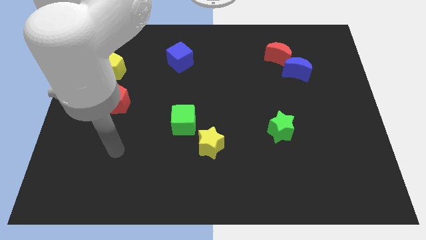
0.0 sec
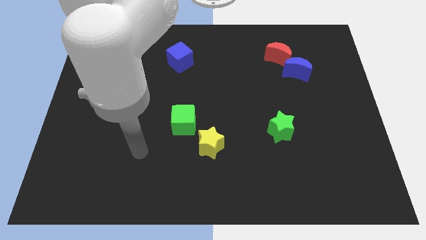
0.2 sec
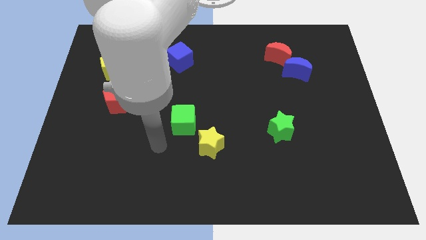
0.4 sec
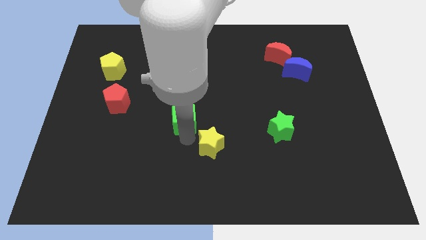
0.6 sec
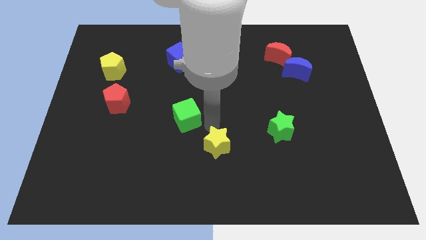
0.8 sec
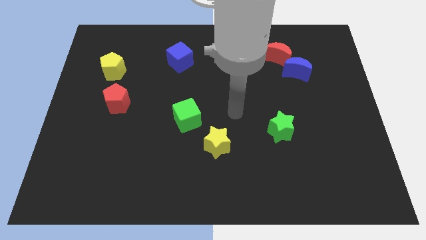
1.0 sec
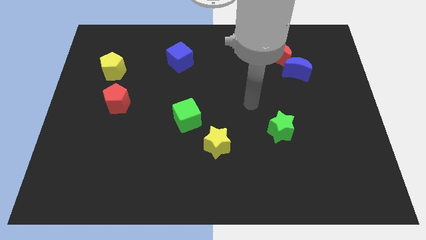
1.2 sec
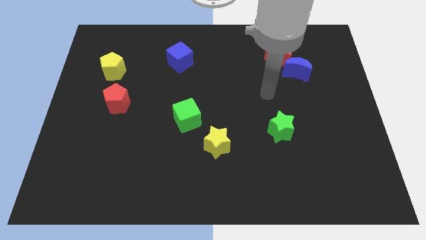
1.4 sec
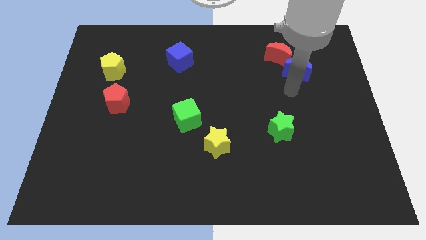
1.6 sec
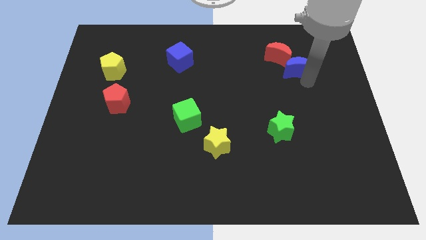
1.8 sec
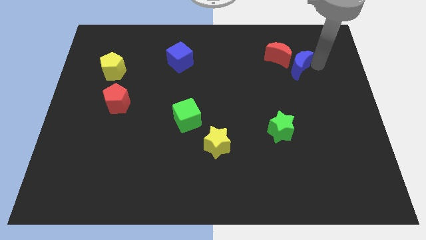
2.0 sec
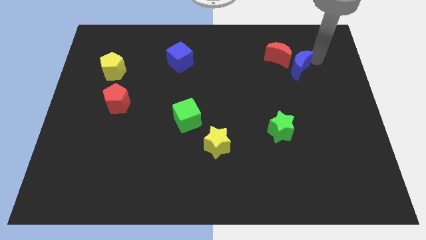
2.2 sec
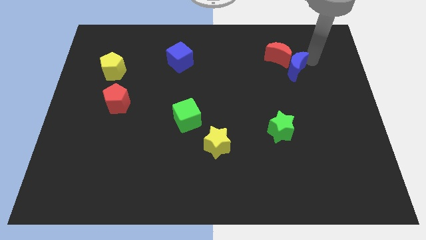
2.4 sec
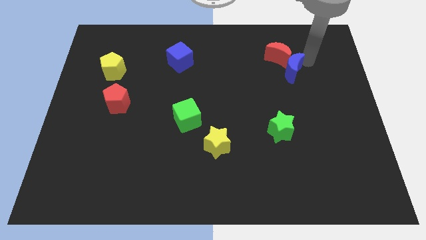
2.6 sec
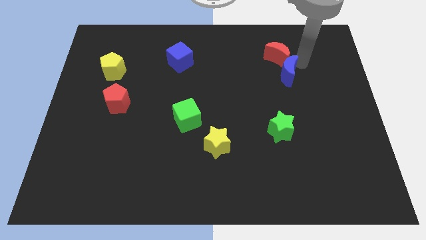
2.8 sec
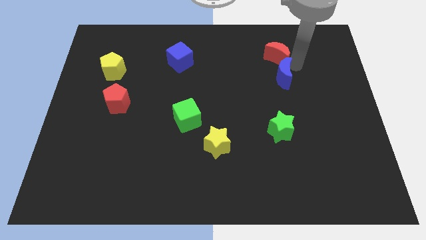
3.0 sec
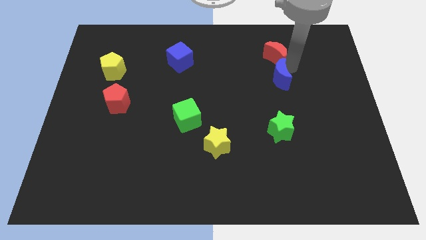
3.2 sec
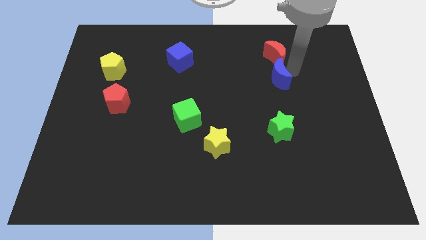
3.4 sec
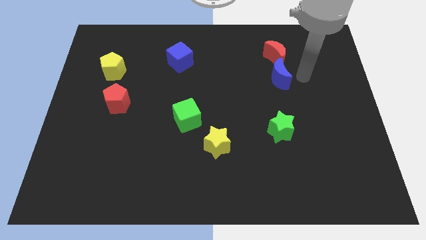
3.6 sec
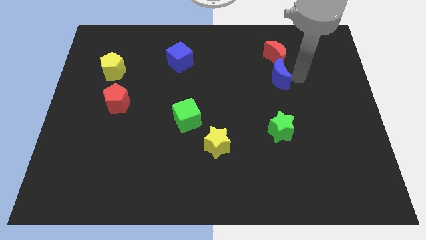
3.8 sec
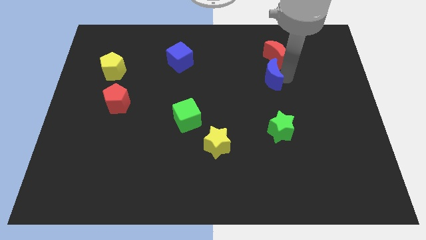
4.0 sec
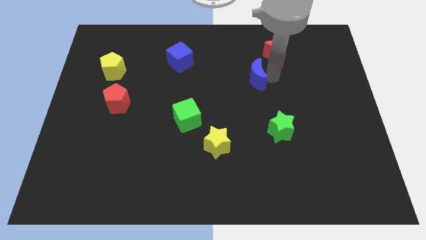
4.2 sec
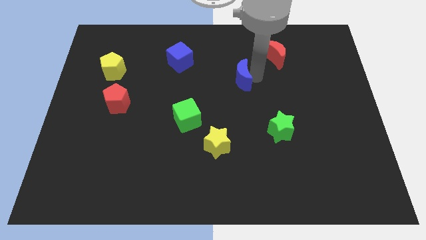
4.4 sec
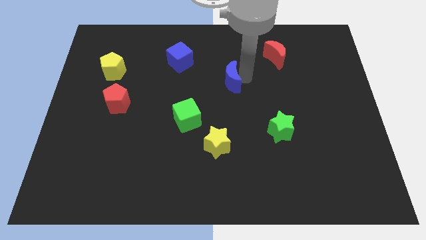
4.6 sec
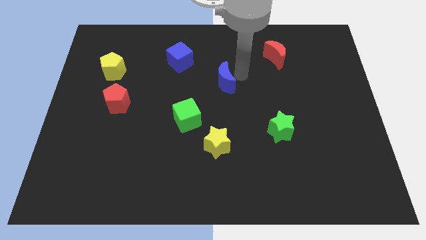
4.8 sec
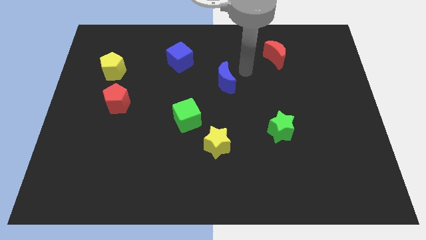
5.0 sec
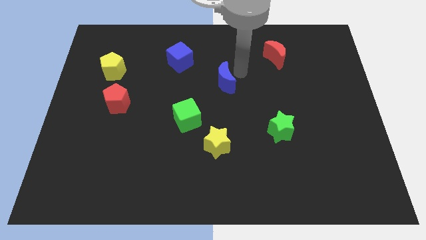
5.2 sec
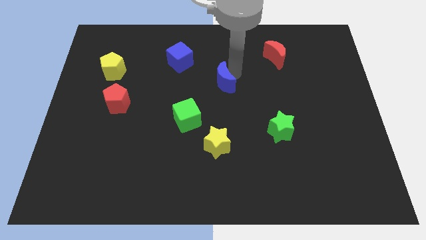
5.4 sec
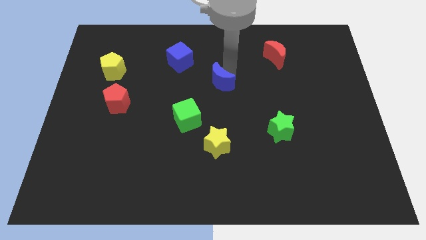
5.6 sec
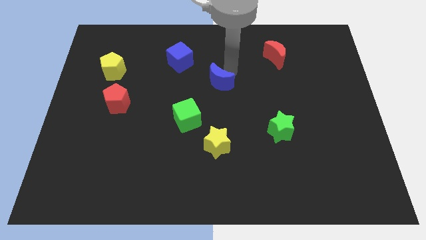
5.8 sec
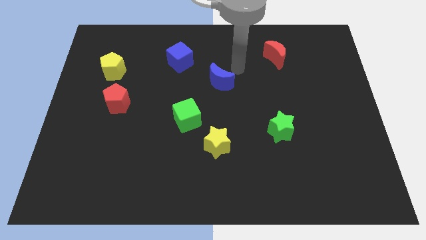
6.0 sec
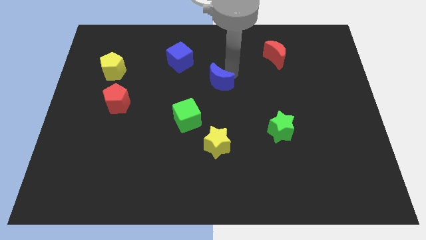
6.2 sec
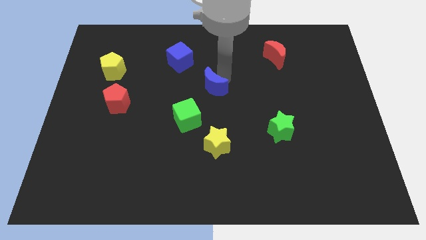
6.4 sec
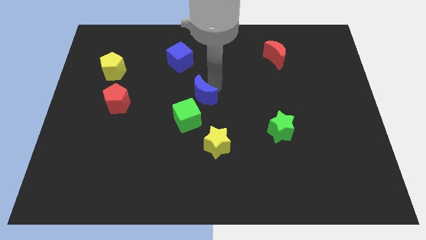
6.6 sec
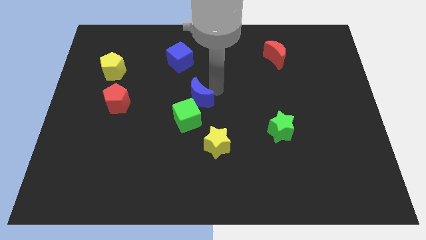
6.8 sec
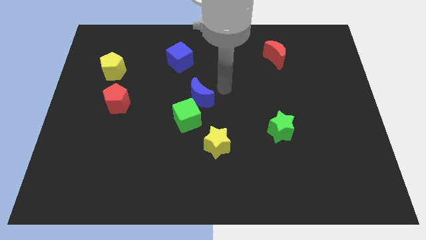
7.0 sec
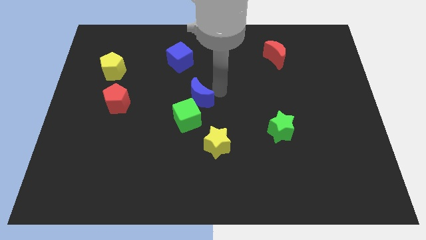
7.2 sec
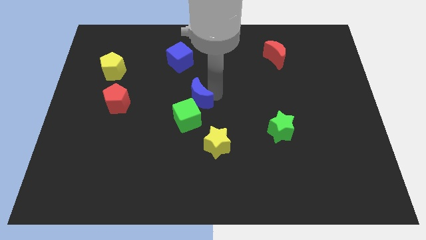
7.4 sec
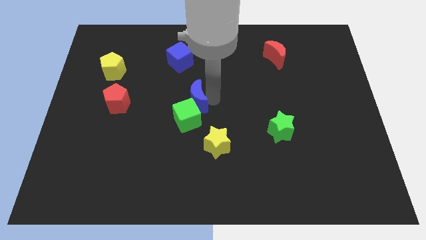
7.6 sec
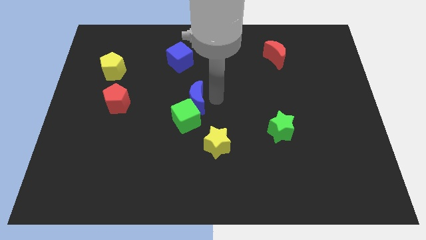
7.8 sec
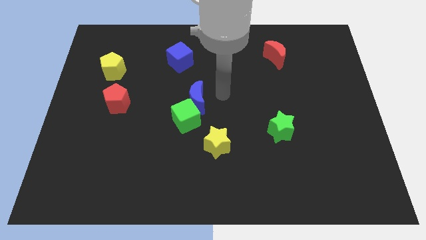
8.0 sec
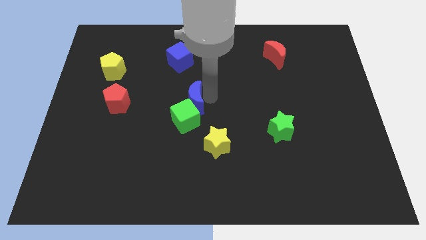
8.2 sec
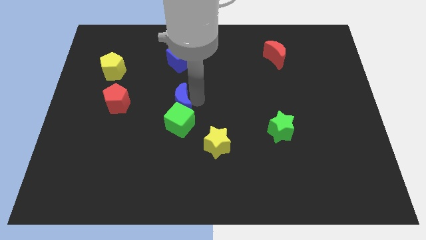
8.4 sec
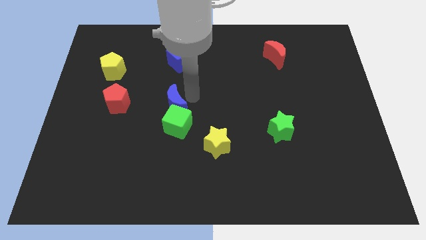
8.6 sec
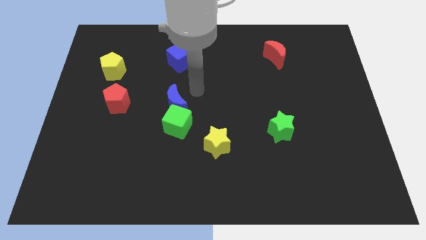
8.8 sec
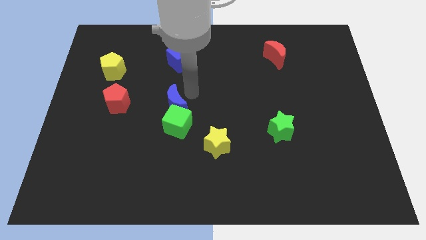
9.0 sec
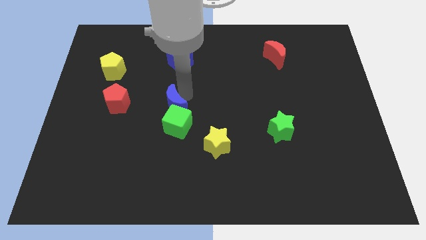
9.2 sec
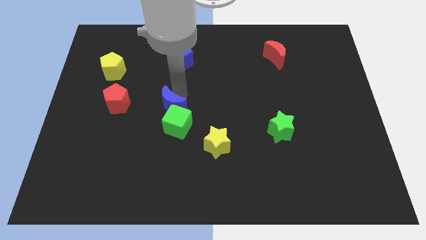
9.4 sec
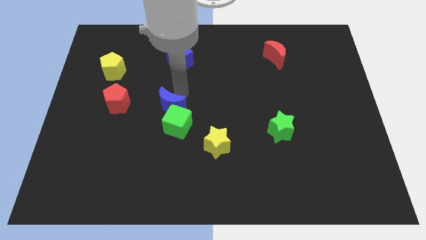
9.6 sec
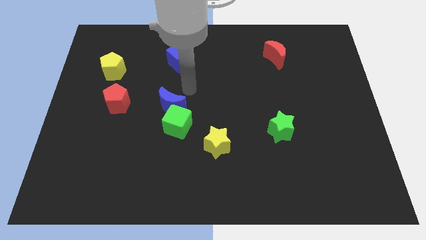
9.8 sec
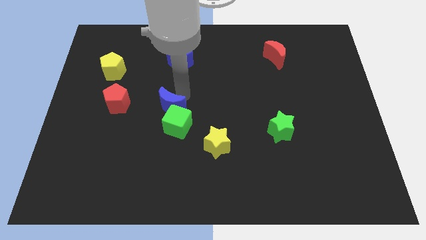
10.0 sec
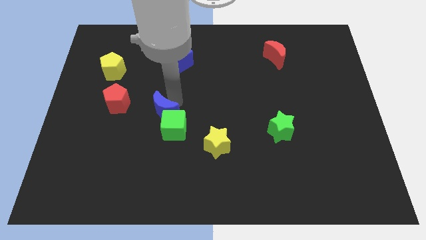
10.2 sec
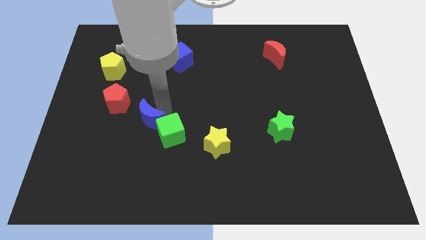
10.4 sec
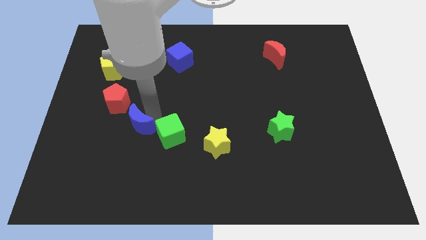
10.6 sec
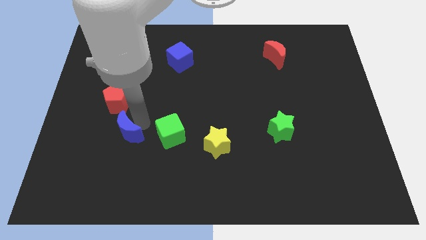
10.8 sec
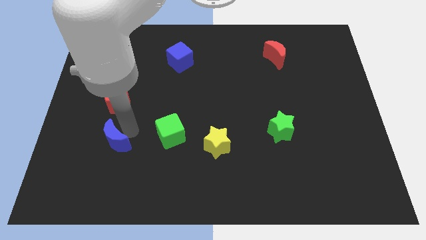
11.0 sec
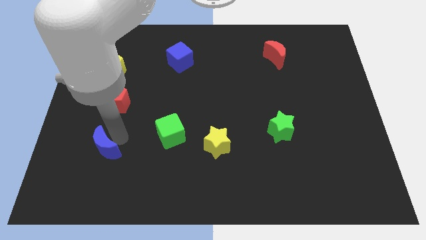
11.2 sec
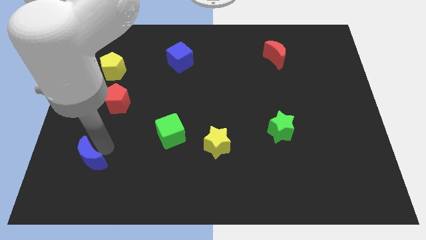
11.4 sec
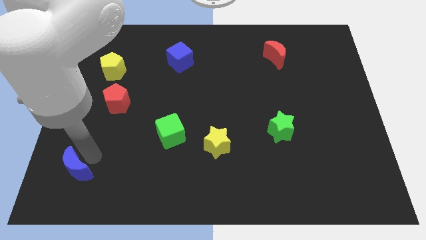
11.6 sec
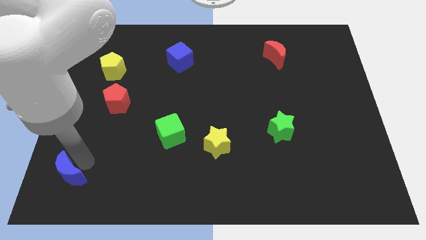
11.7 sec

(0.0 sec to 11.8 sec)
move the blue moon to the lower left corner
